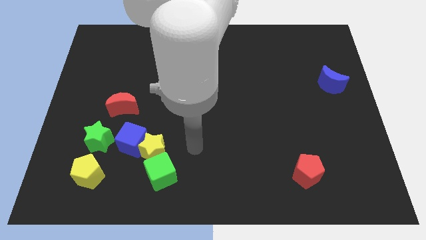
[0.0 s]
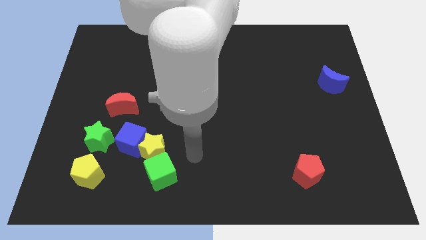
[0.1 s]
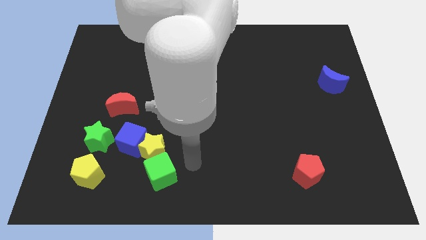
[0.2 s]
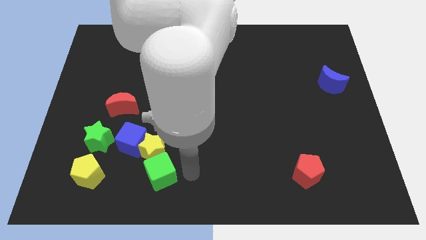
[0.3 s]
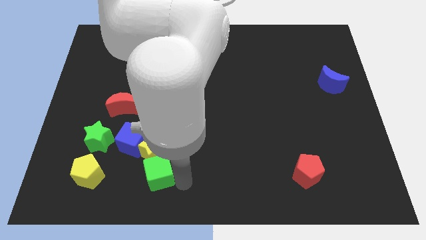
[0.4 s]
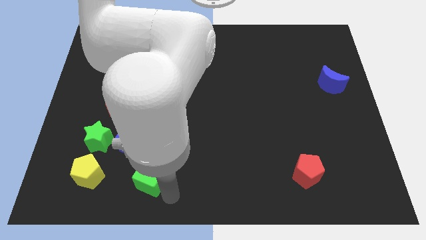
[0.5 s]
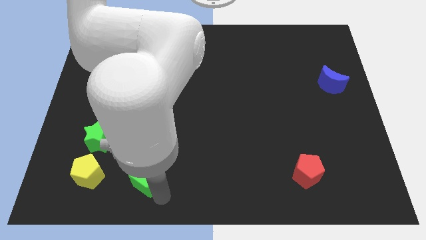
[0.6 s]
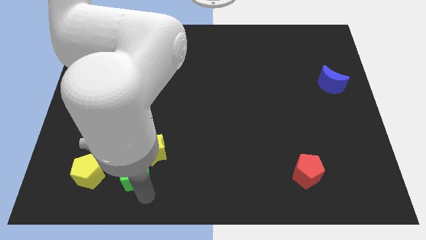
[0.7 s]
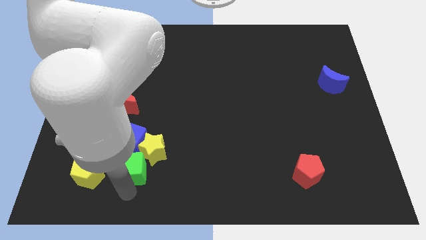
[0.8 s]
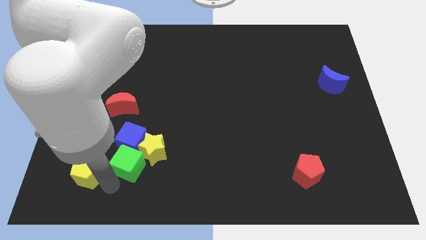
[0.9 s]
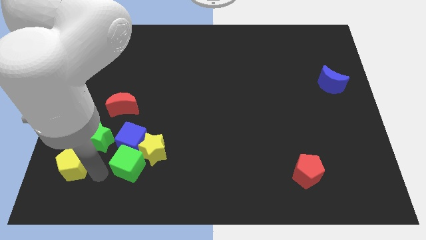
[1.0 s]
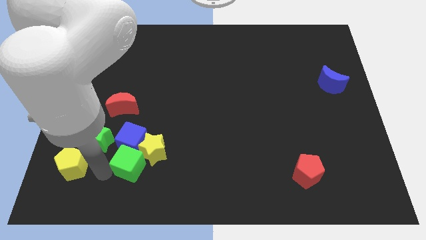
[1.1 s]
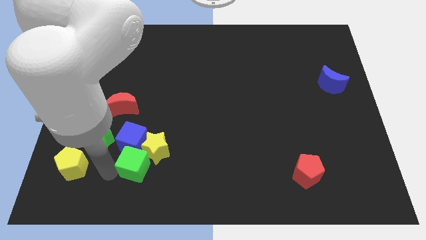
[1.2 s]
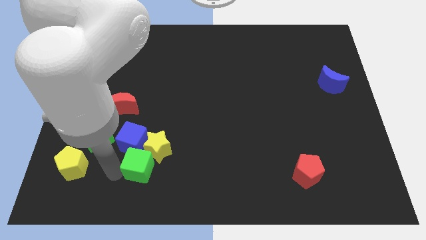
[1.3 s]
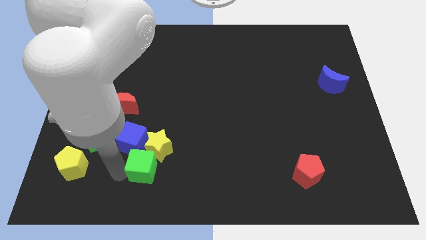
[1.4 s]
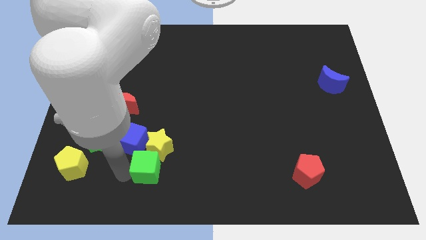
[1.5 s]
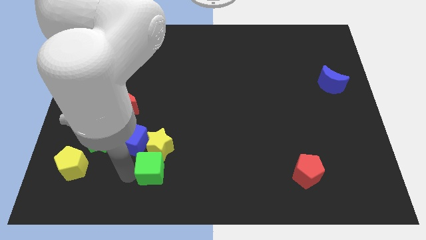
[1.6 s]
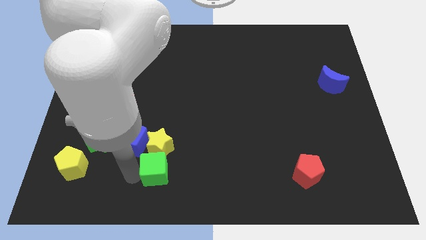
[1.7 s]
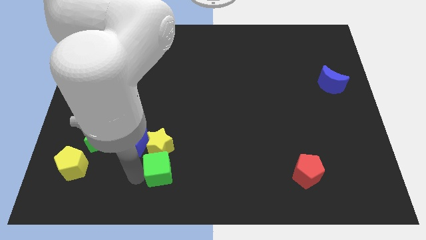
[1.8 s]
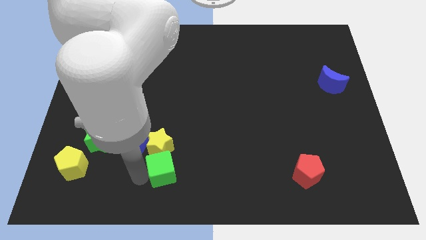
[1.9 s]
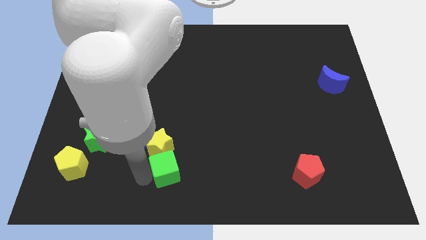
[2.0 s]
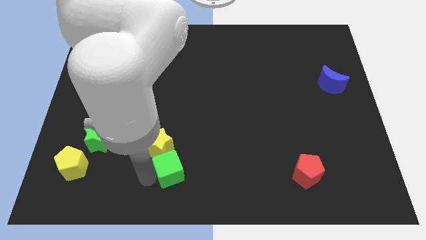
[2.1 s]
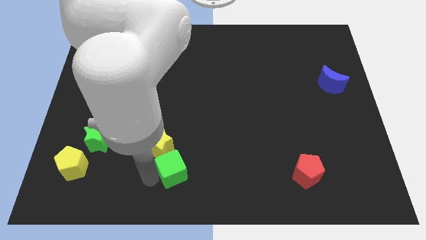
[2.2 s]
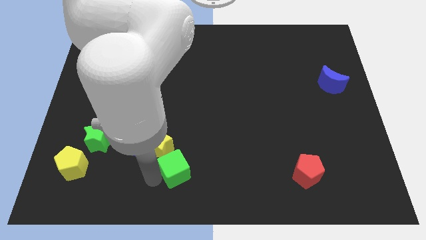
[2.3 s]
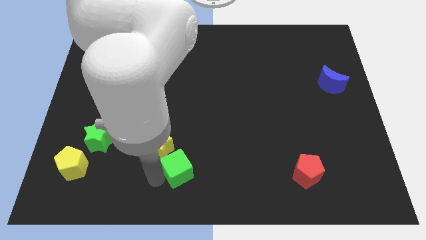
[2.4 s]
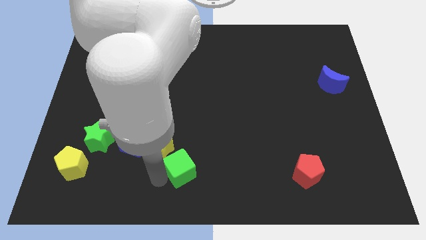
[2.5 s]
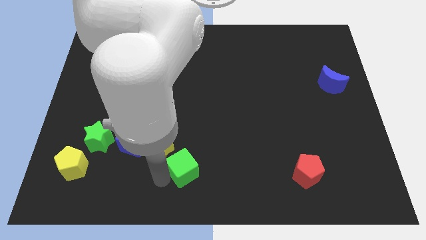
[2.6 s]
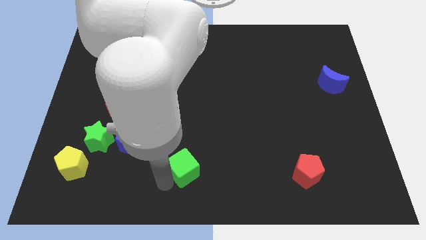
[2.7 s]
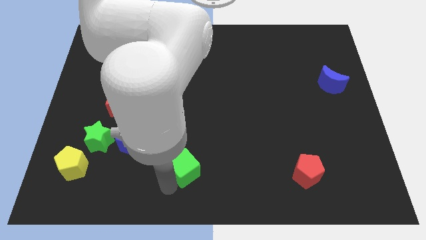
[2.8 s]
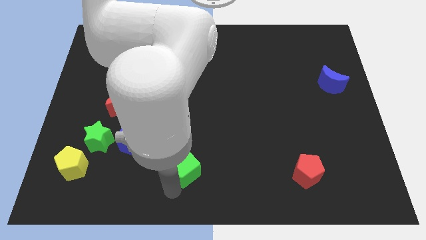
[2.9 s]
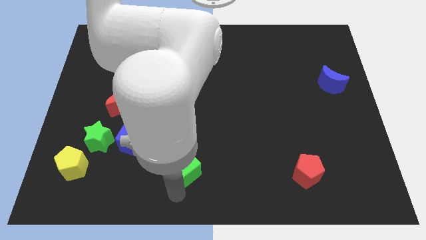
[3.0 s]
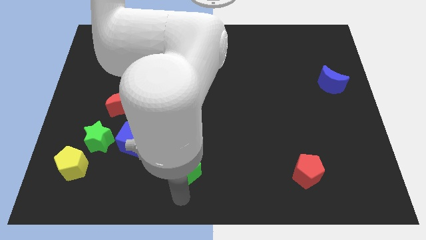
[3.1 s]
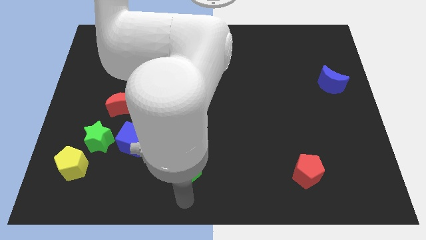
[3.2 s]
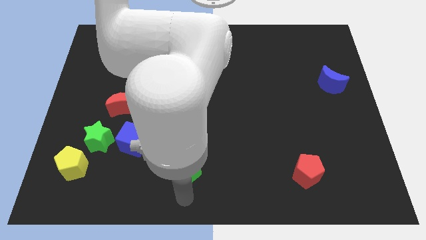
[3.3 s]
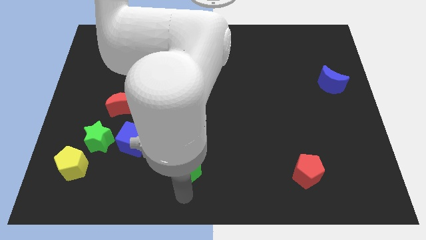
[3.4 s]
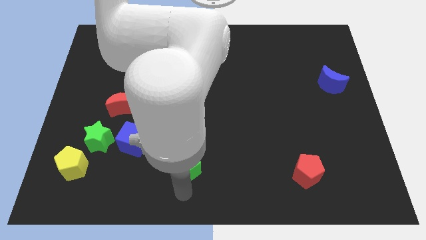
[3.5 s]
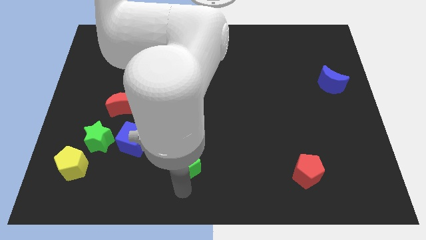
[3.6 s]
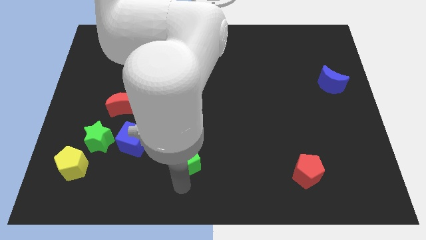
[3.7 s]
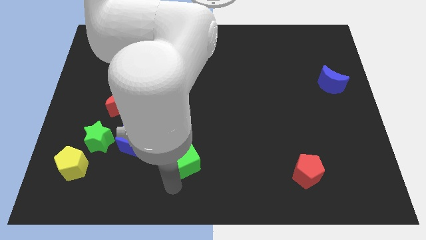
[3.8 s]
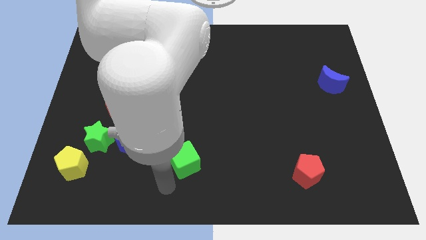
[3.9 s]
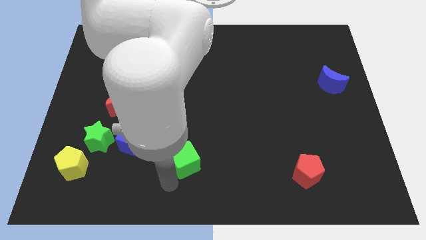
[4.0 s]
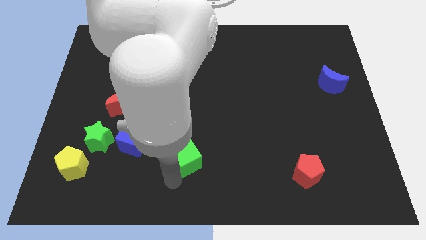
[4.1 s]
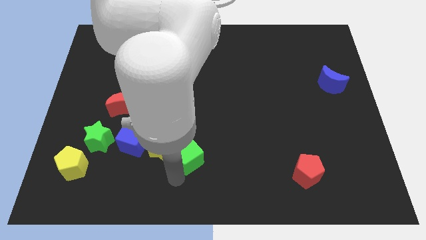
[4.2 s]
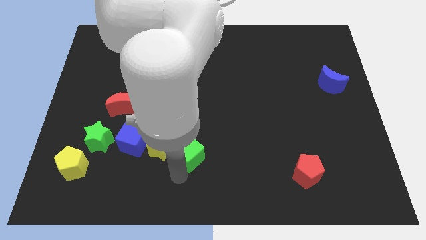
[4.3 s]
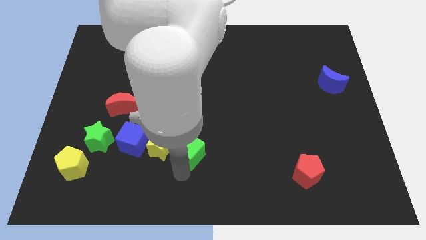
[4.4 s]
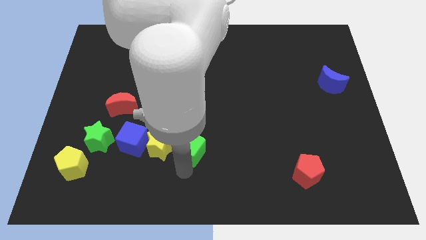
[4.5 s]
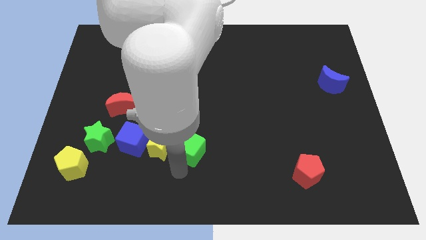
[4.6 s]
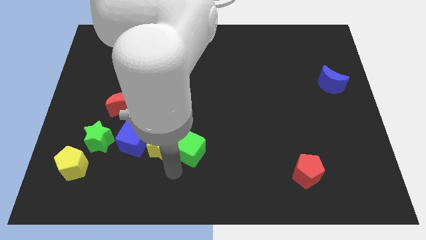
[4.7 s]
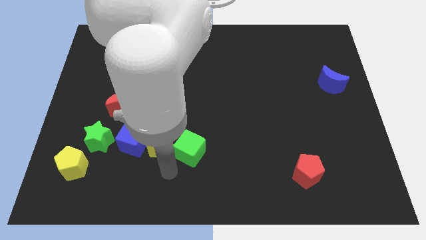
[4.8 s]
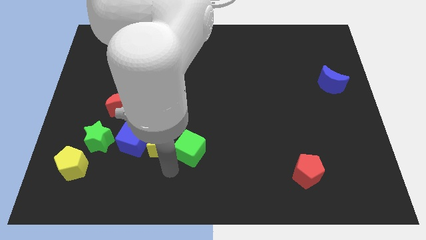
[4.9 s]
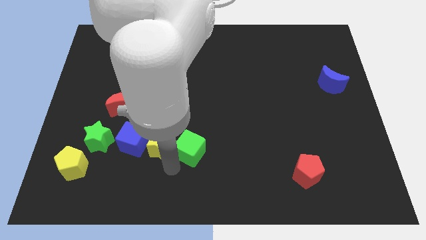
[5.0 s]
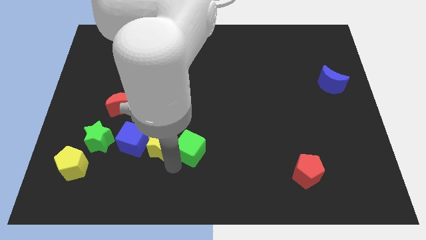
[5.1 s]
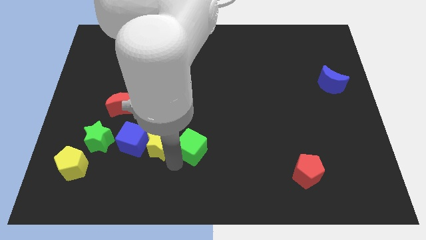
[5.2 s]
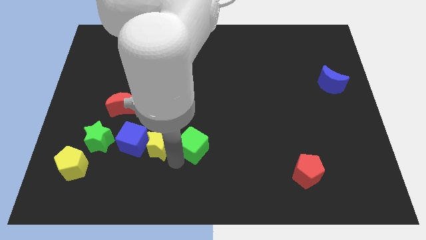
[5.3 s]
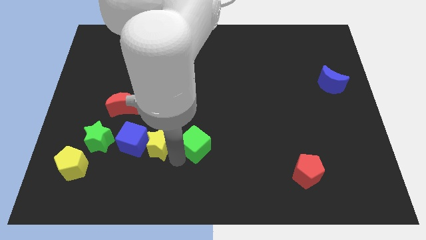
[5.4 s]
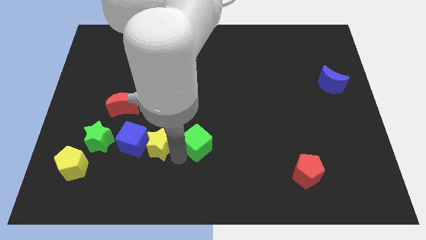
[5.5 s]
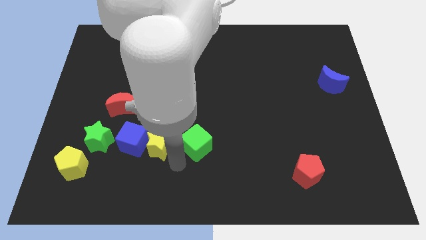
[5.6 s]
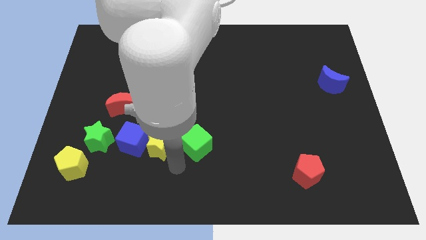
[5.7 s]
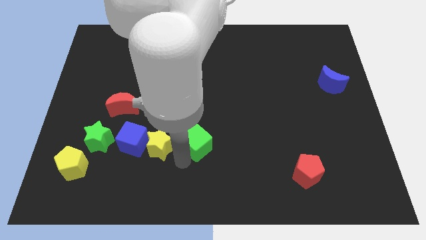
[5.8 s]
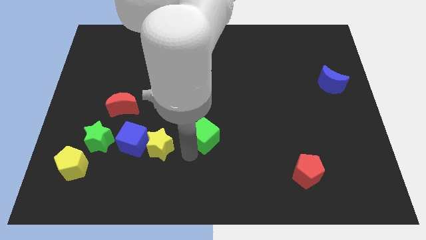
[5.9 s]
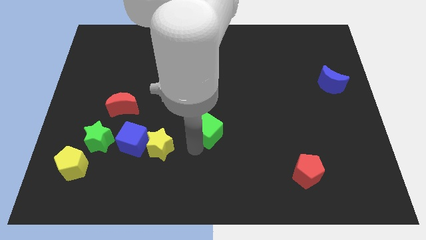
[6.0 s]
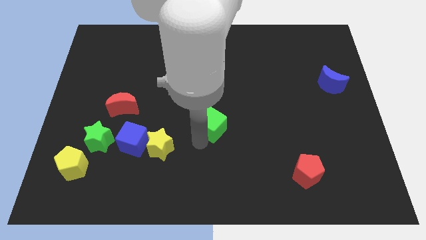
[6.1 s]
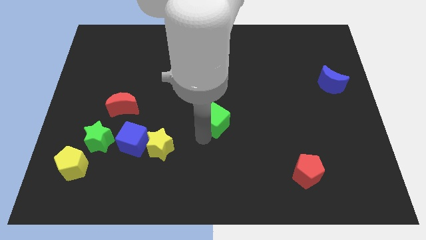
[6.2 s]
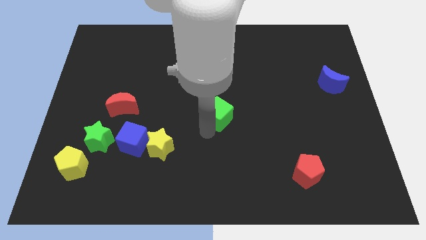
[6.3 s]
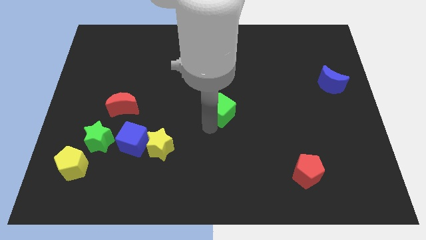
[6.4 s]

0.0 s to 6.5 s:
slide the green cube diagonally up and to the right

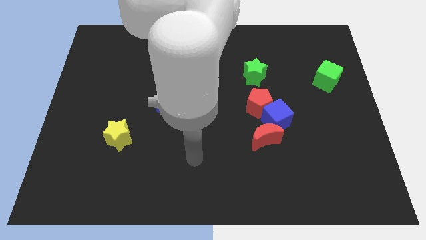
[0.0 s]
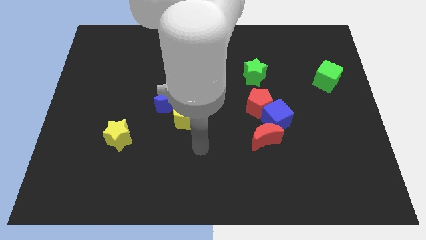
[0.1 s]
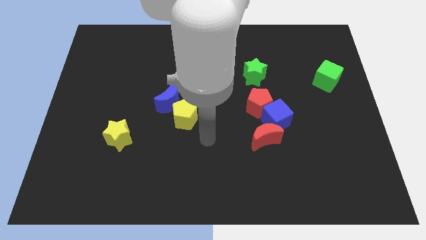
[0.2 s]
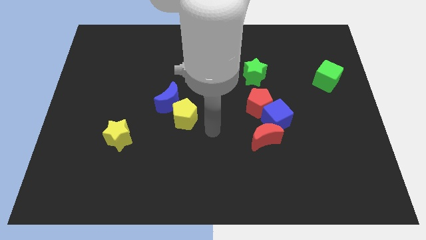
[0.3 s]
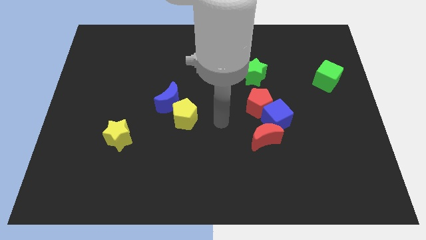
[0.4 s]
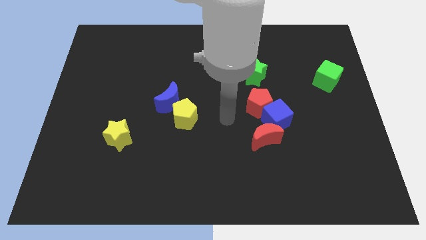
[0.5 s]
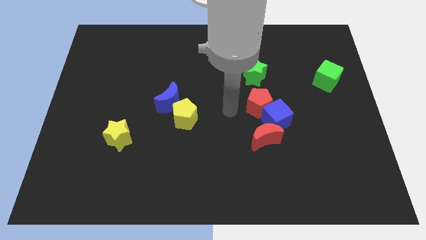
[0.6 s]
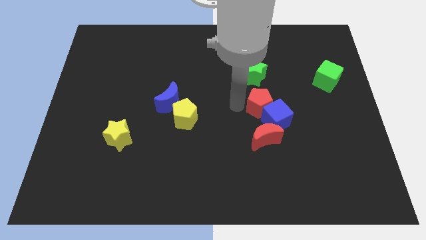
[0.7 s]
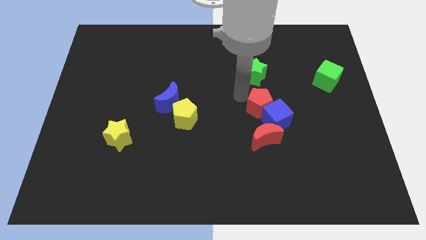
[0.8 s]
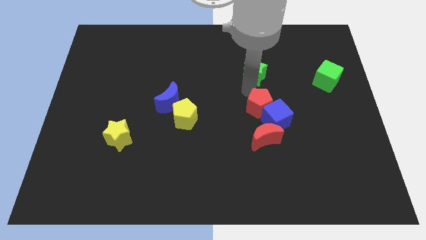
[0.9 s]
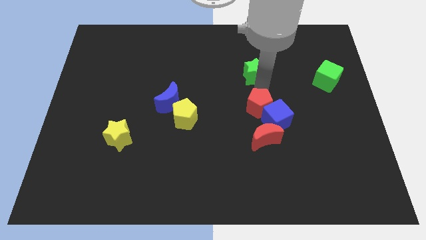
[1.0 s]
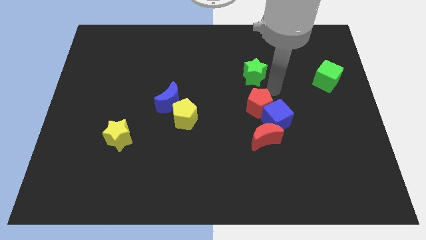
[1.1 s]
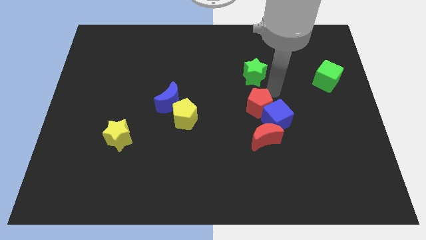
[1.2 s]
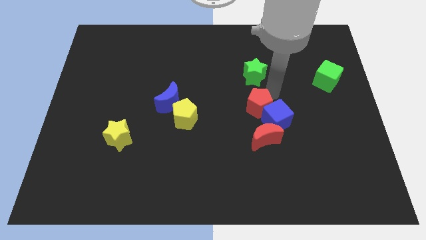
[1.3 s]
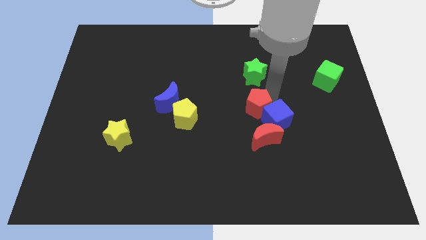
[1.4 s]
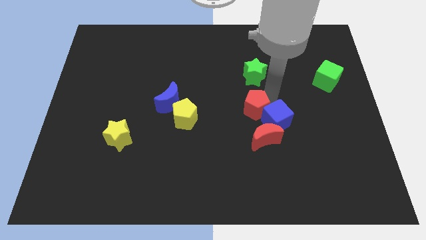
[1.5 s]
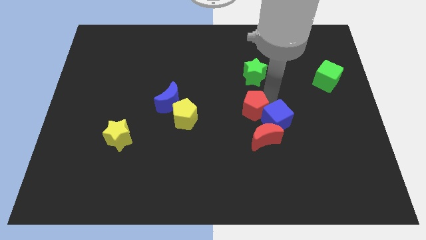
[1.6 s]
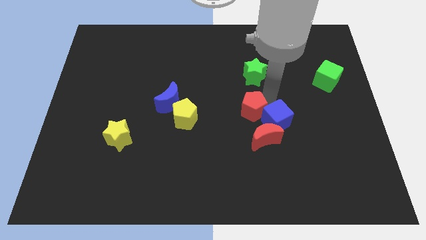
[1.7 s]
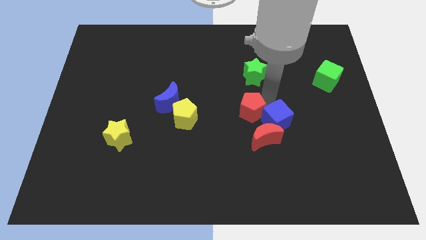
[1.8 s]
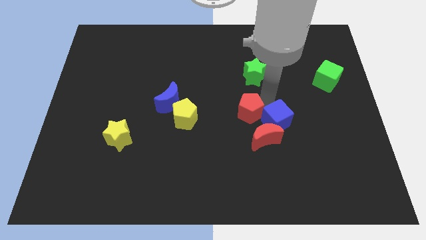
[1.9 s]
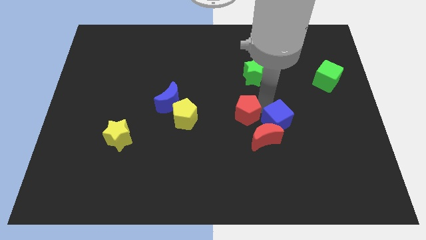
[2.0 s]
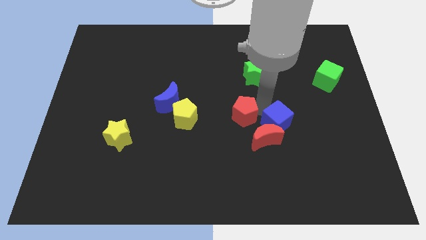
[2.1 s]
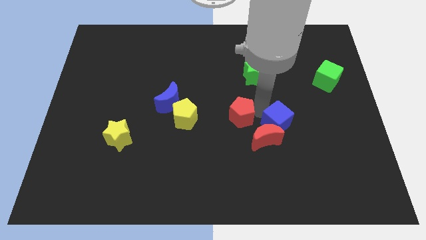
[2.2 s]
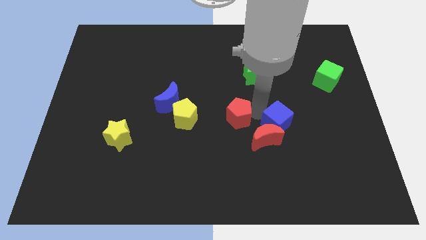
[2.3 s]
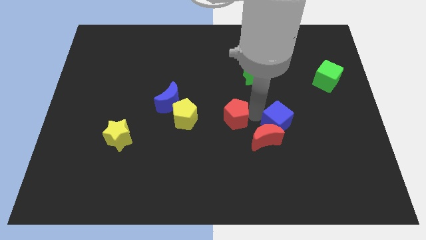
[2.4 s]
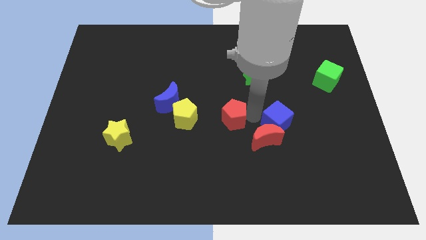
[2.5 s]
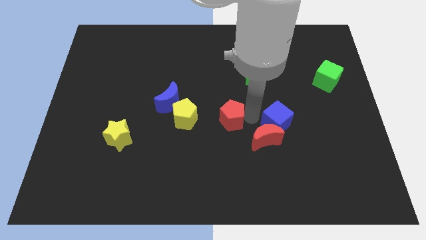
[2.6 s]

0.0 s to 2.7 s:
slightly push the red pentagon down and then to the left
